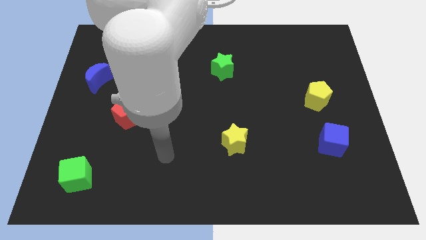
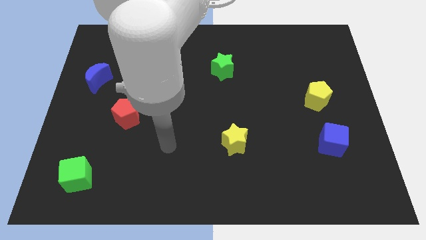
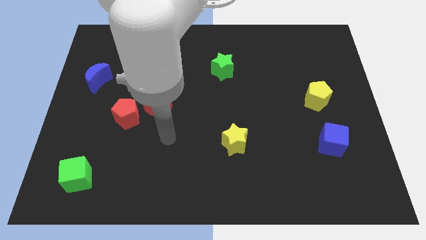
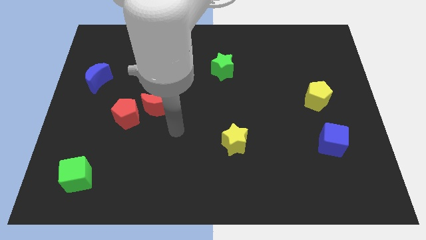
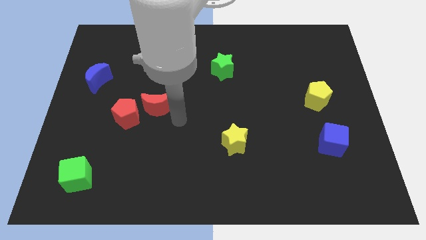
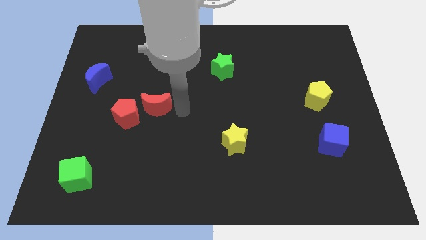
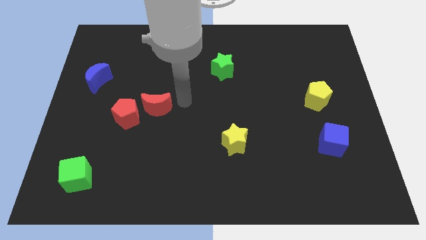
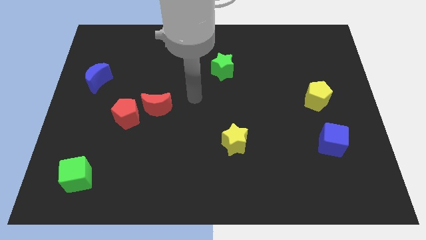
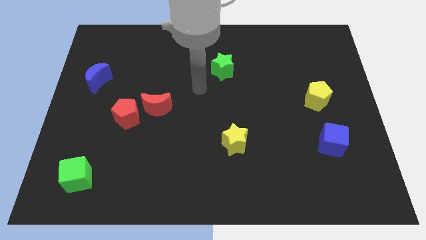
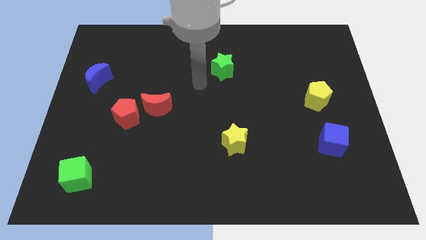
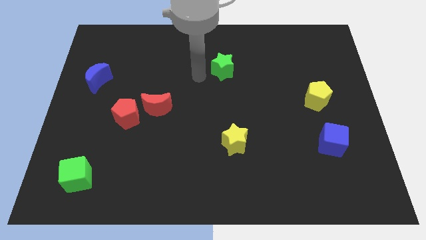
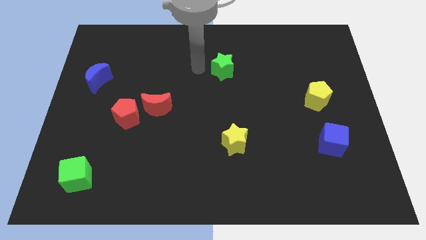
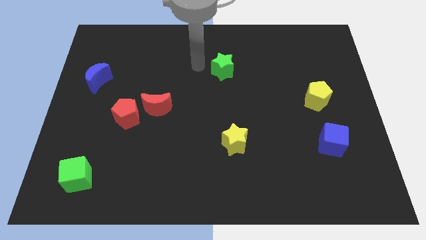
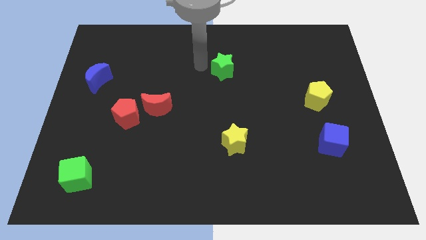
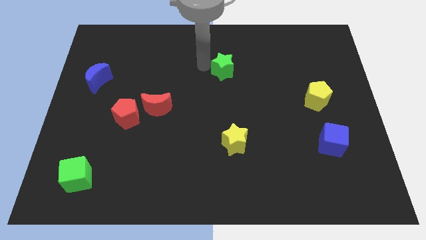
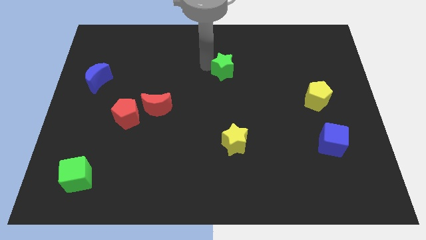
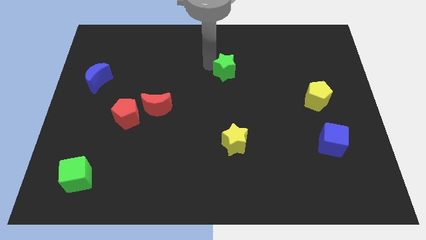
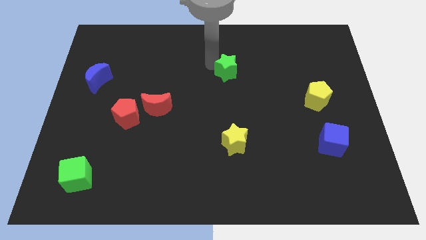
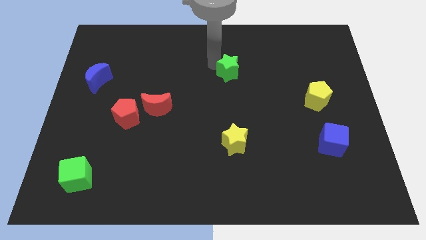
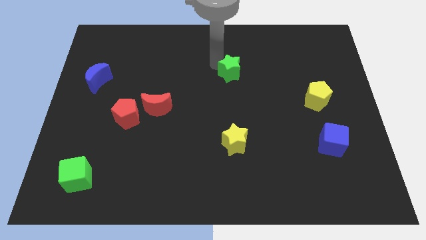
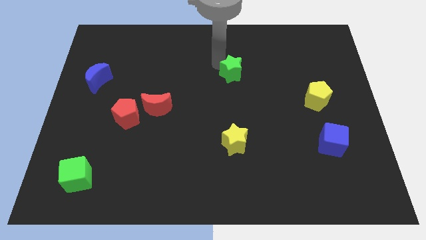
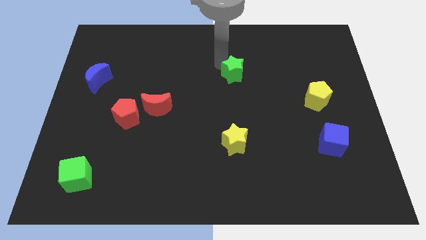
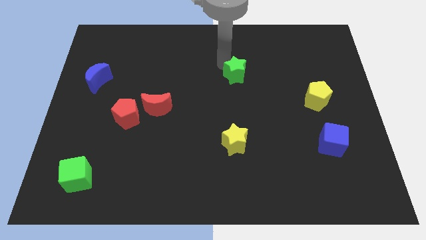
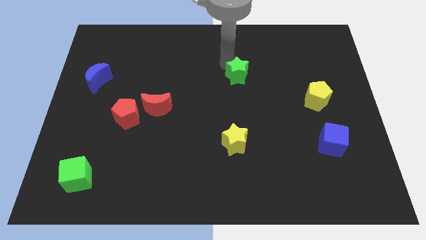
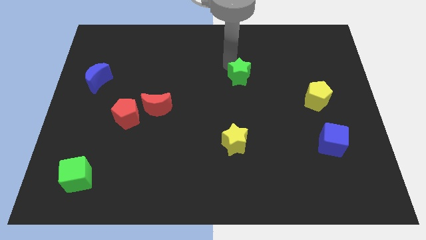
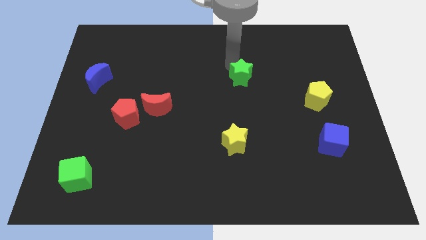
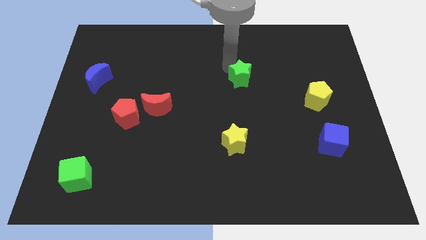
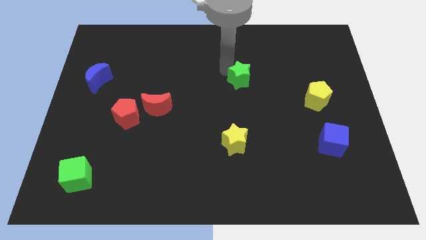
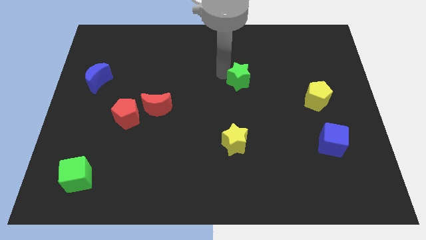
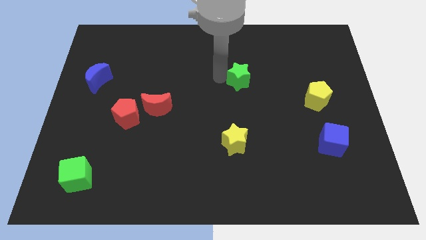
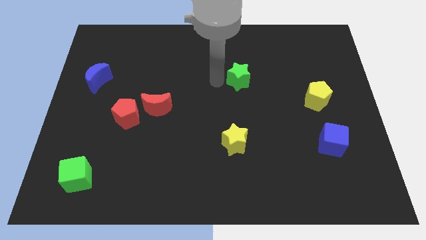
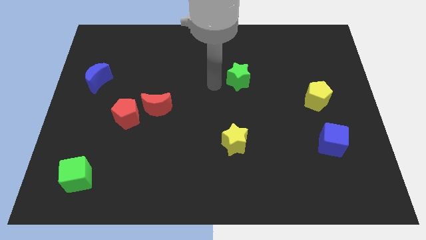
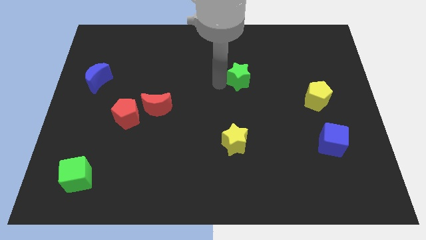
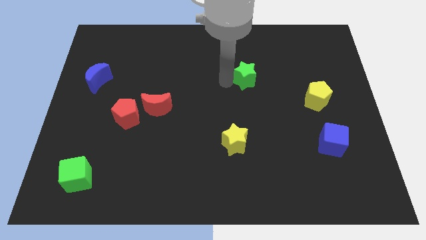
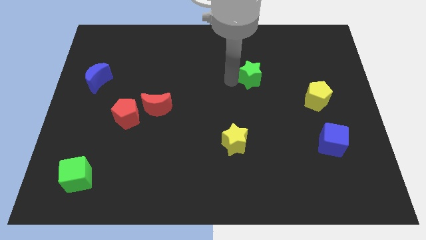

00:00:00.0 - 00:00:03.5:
slightly move the green star to the right

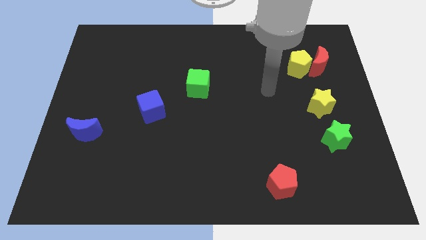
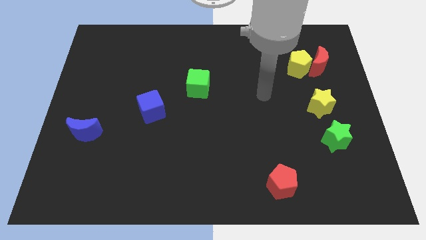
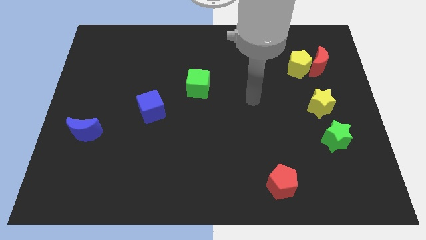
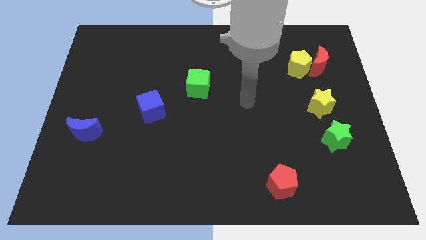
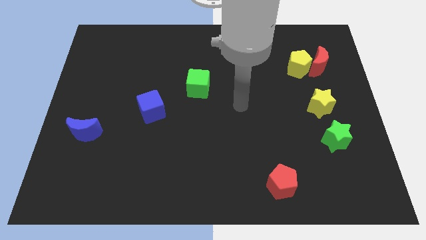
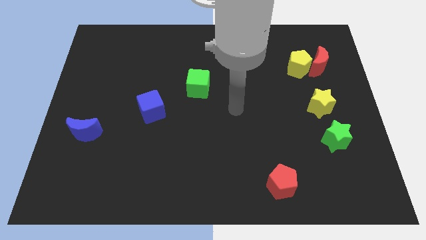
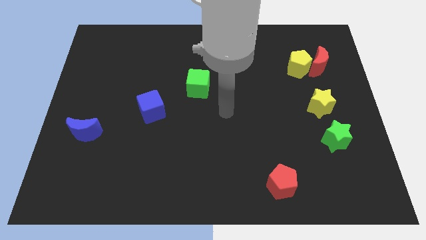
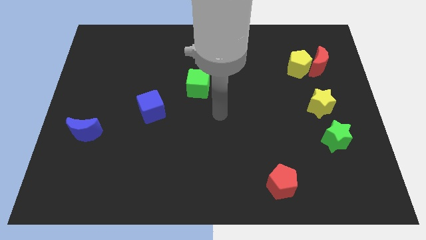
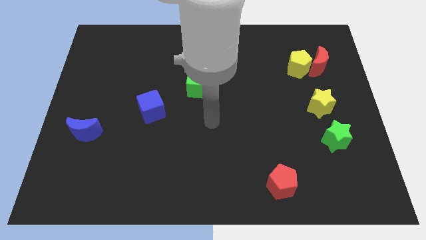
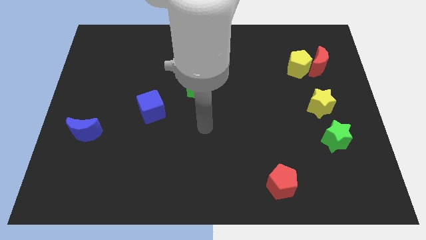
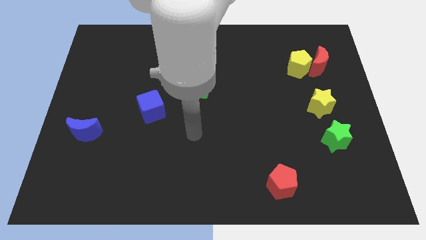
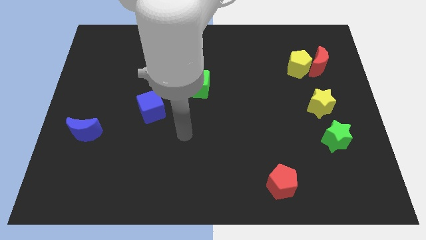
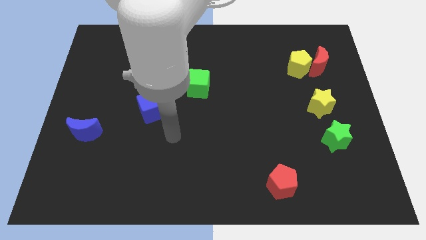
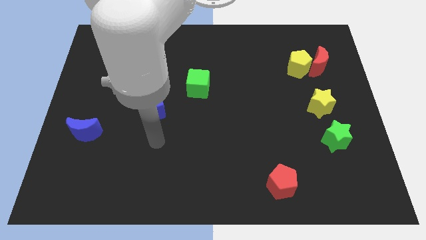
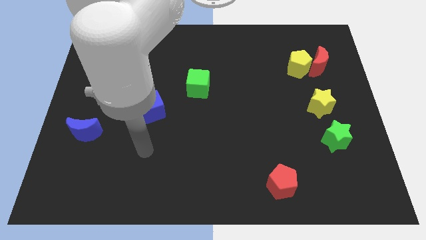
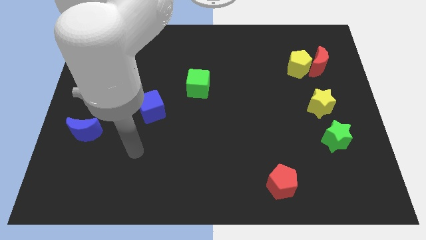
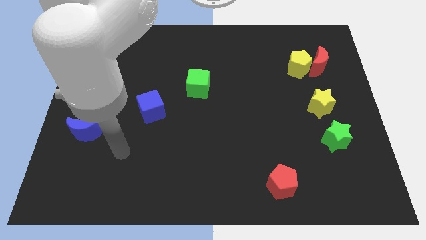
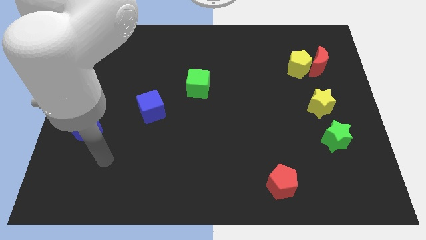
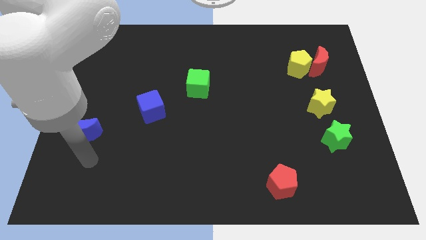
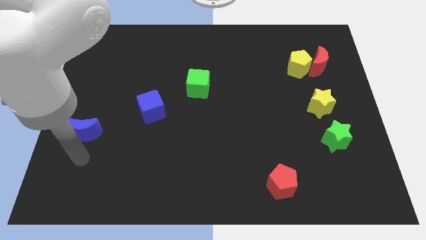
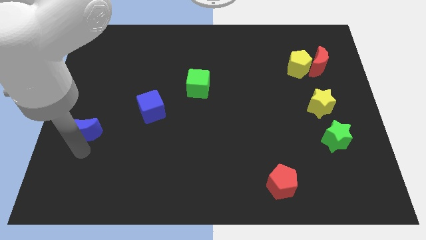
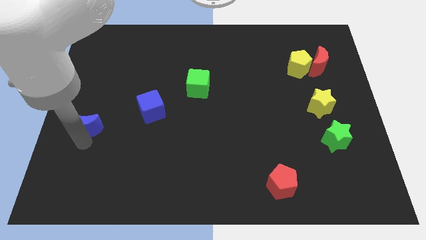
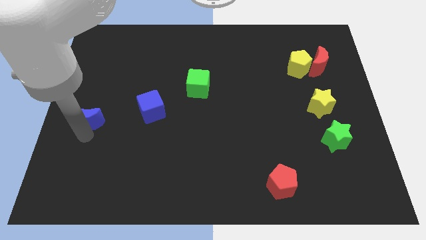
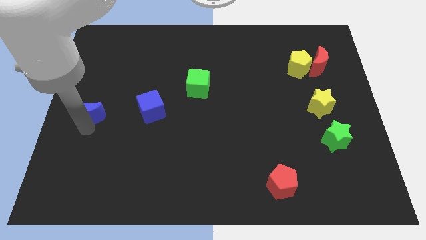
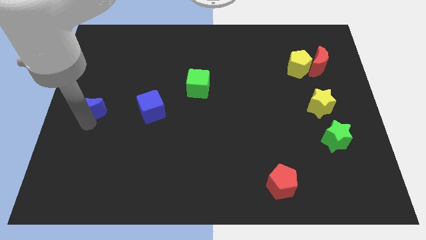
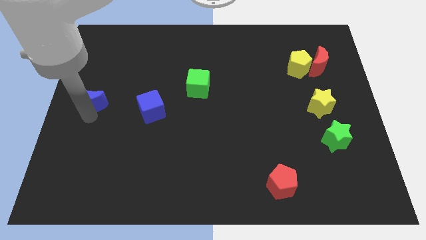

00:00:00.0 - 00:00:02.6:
push the blue moon up slightly

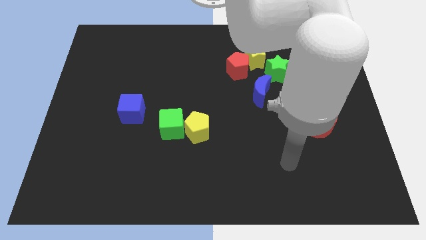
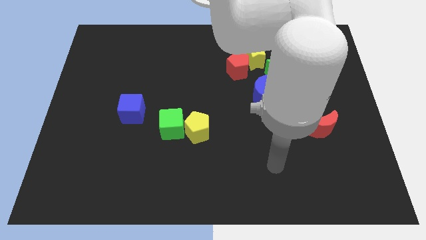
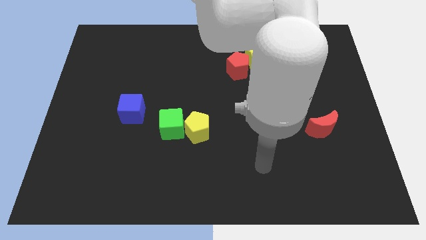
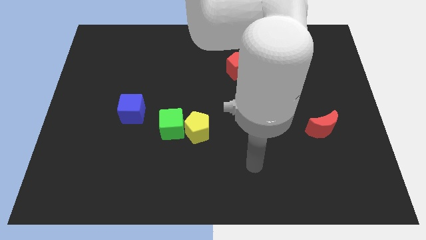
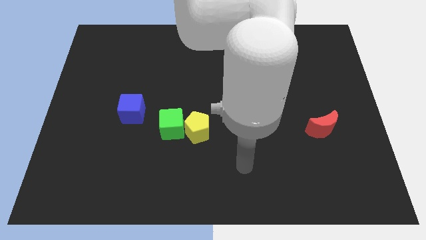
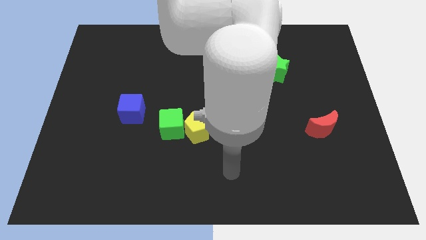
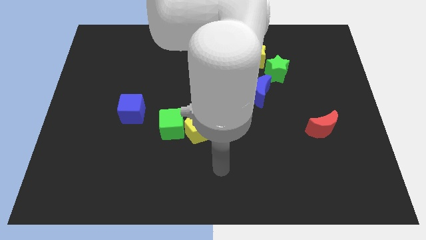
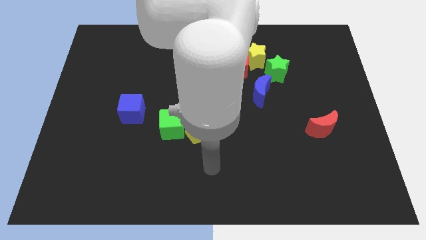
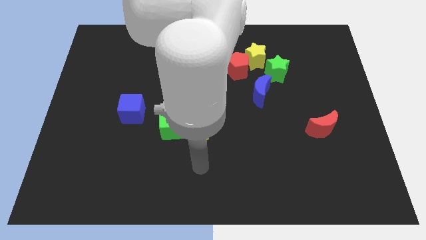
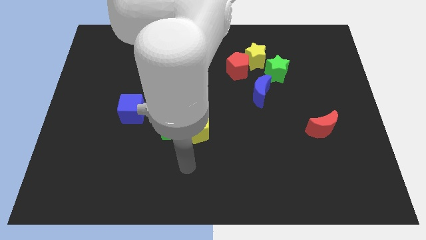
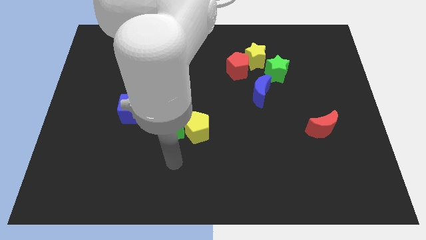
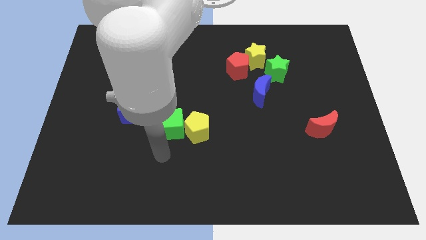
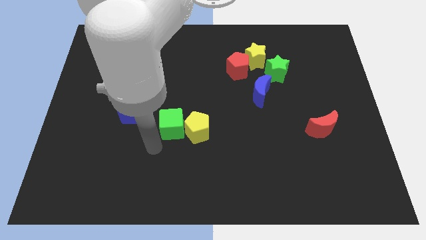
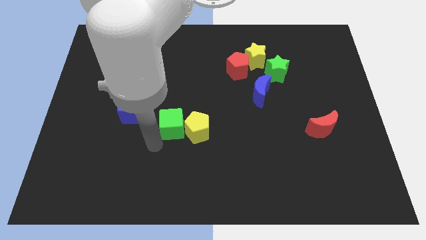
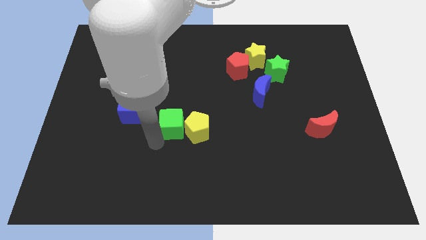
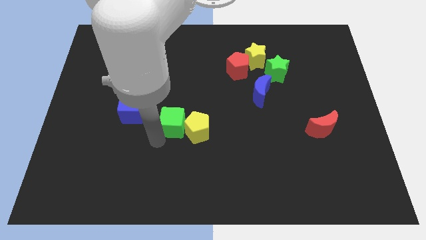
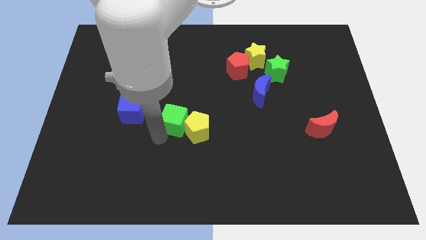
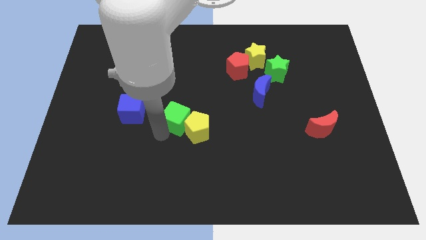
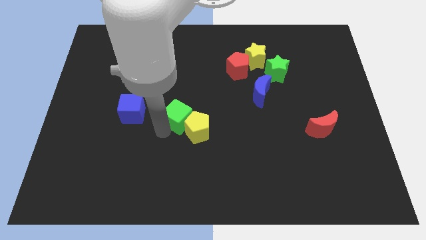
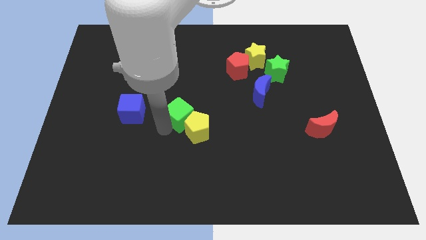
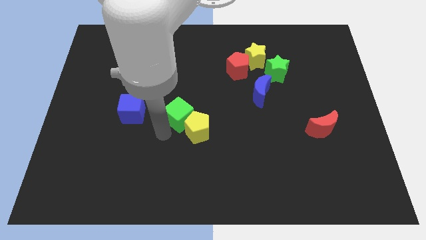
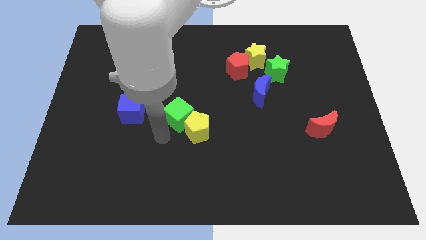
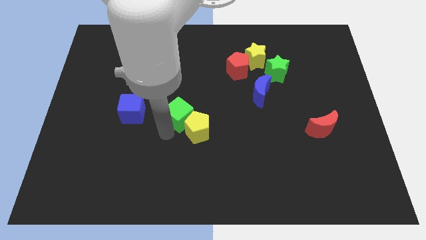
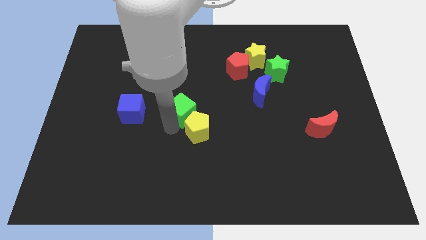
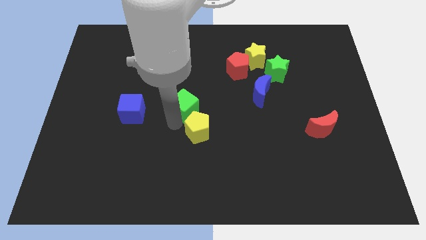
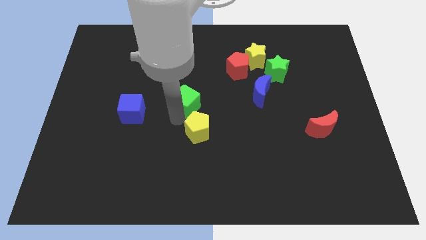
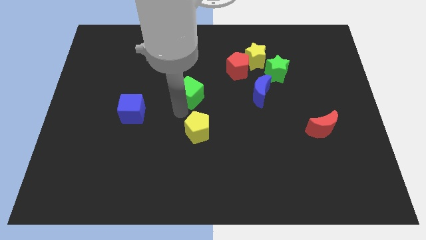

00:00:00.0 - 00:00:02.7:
move the green cube up and to the right diagonally slightly
